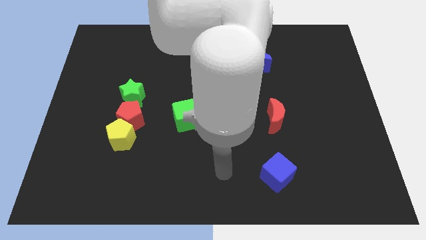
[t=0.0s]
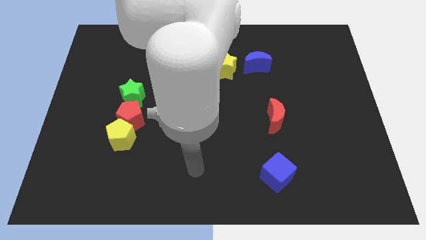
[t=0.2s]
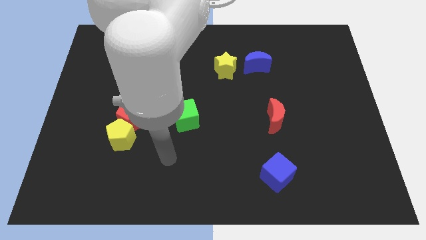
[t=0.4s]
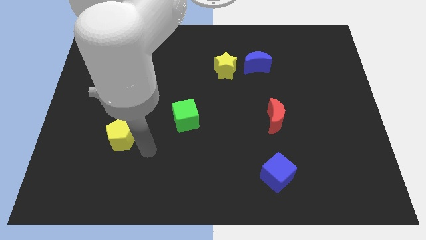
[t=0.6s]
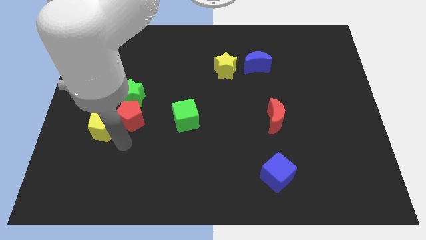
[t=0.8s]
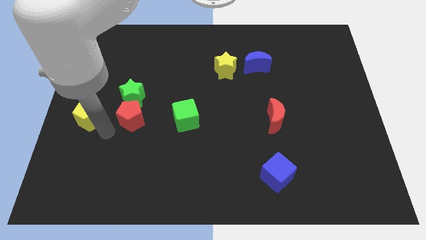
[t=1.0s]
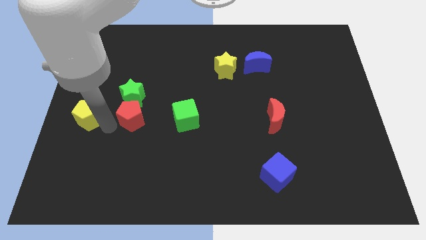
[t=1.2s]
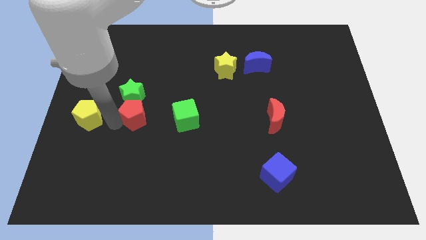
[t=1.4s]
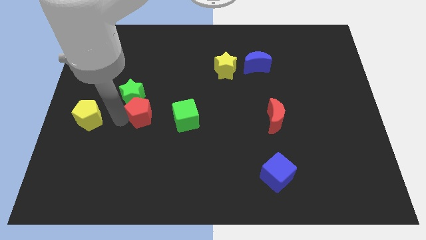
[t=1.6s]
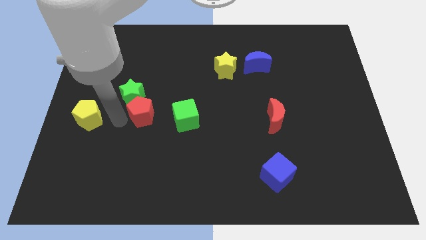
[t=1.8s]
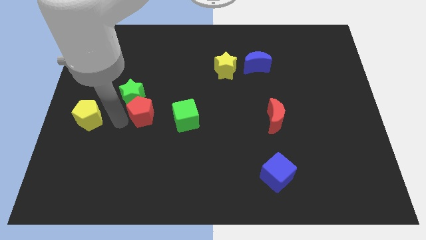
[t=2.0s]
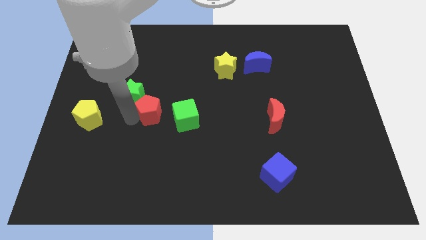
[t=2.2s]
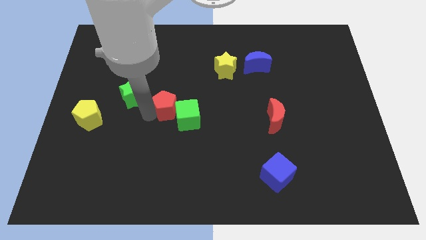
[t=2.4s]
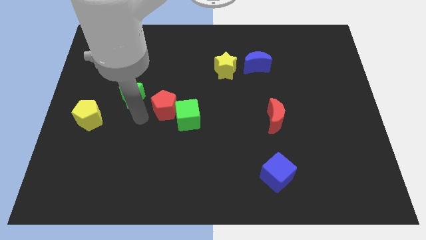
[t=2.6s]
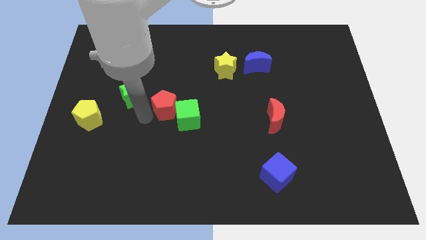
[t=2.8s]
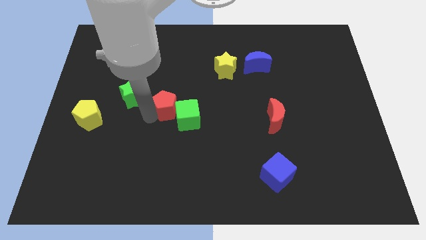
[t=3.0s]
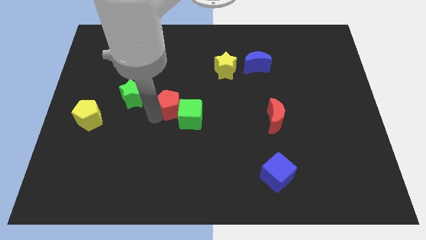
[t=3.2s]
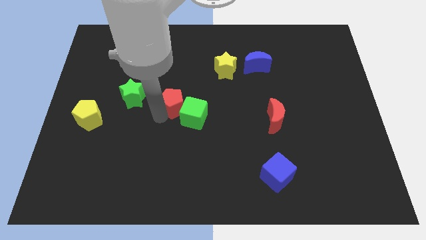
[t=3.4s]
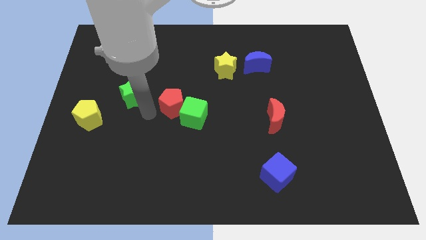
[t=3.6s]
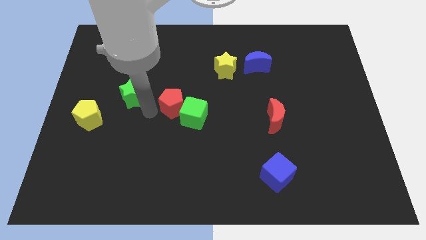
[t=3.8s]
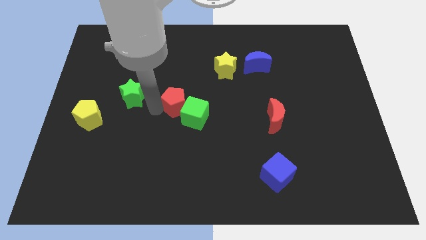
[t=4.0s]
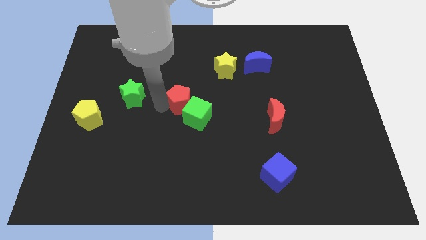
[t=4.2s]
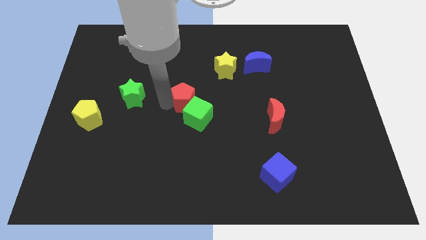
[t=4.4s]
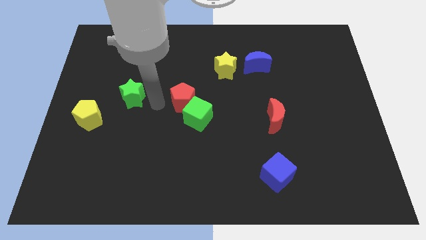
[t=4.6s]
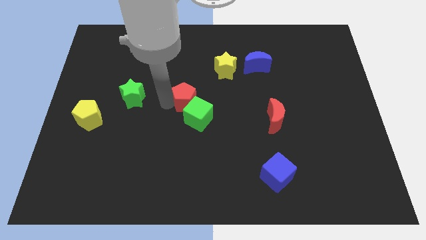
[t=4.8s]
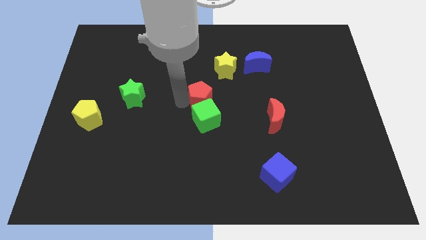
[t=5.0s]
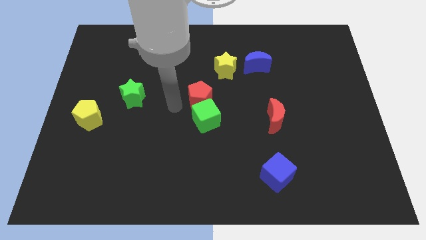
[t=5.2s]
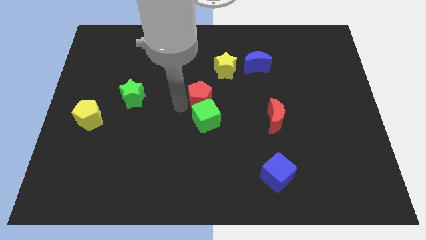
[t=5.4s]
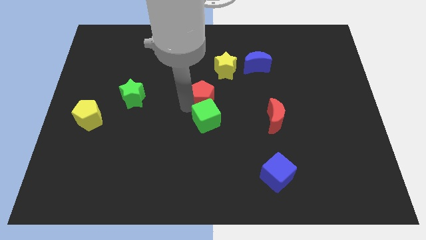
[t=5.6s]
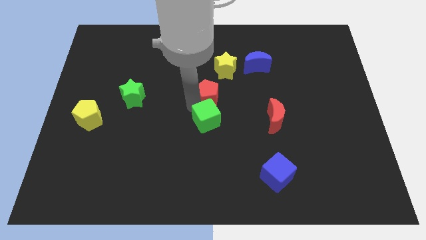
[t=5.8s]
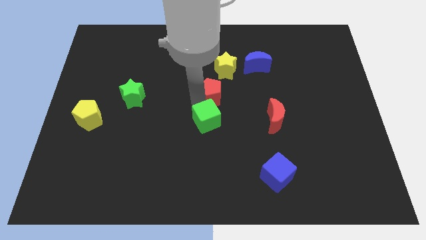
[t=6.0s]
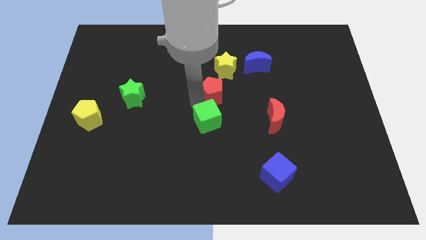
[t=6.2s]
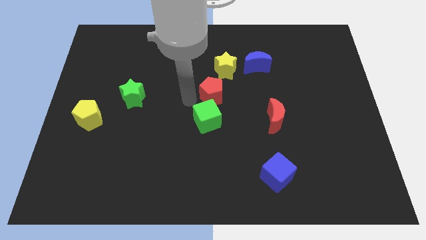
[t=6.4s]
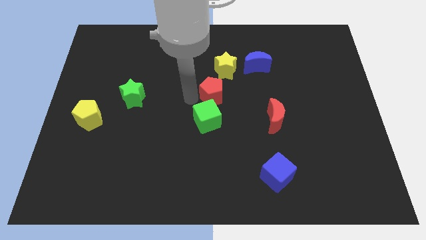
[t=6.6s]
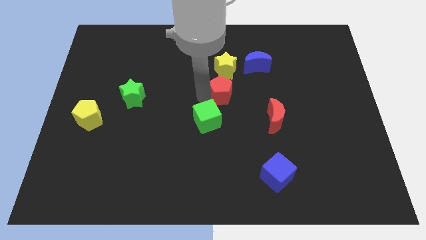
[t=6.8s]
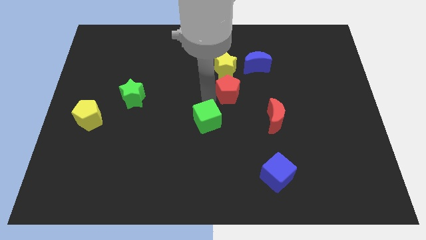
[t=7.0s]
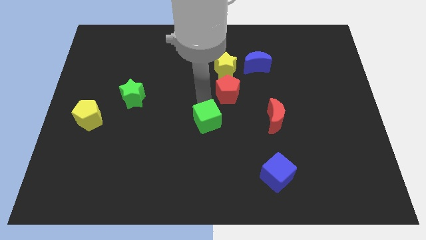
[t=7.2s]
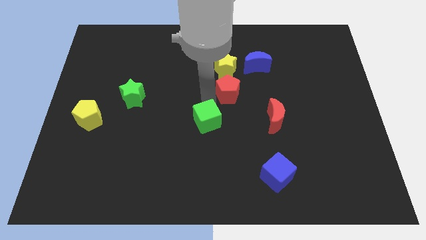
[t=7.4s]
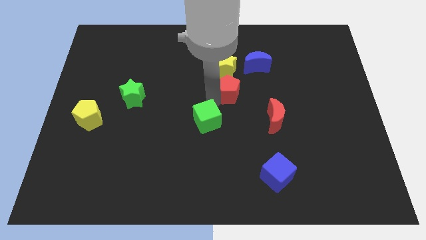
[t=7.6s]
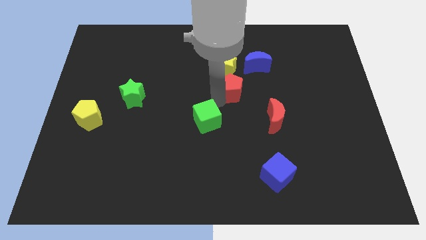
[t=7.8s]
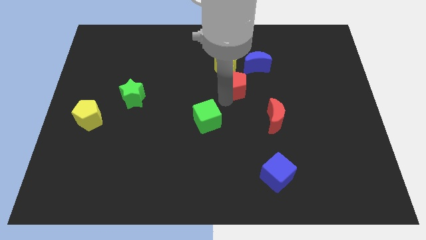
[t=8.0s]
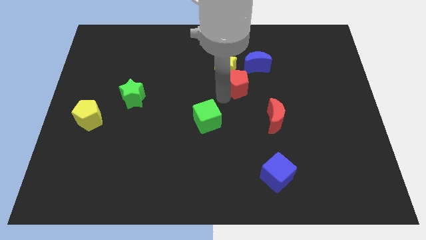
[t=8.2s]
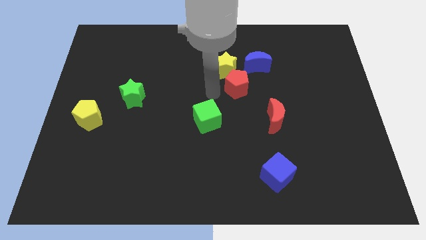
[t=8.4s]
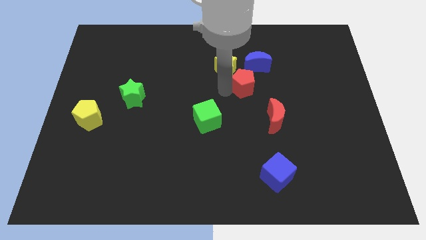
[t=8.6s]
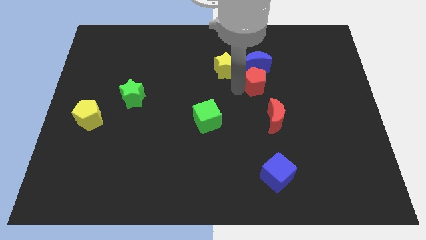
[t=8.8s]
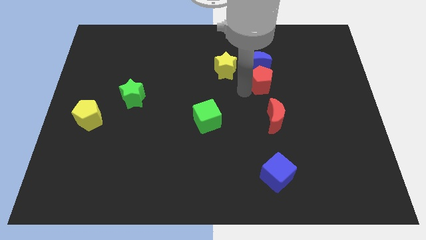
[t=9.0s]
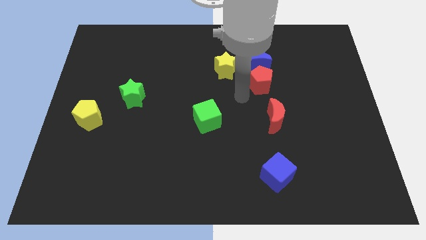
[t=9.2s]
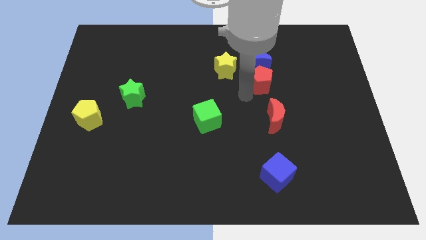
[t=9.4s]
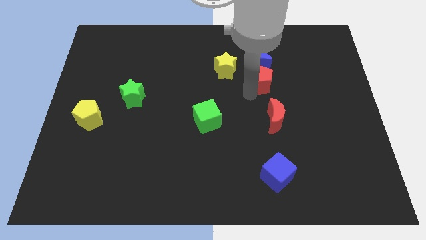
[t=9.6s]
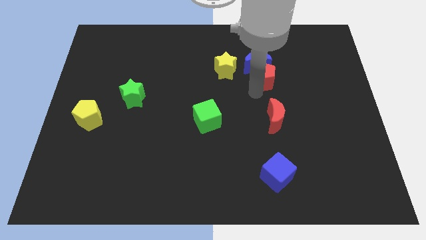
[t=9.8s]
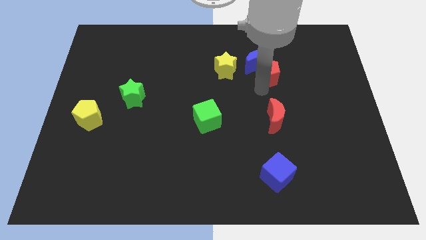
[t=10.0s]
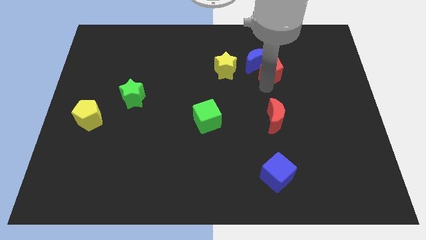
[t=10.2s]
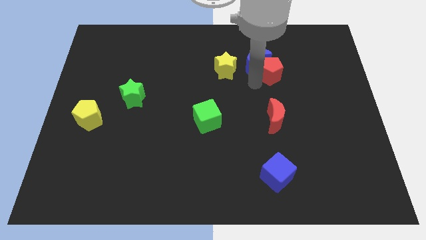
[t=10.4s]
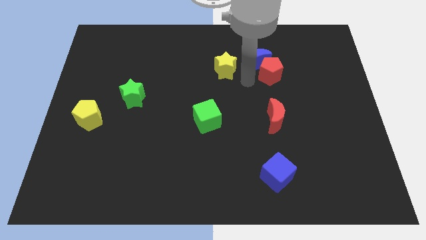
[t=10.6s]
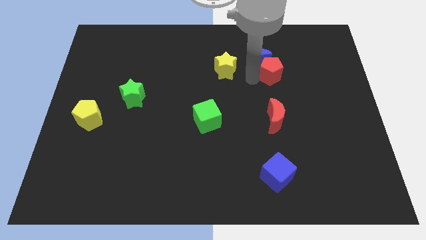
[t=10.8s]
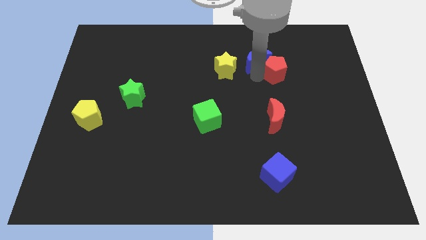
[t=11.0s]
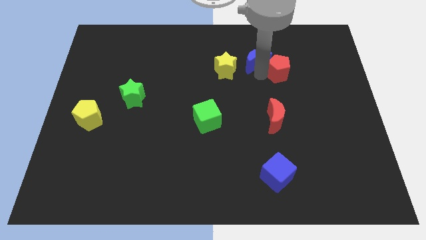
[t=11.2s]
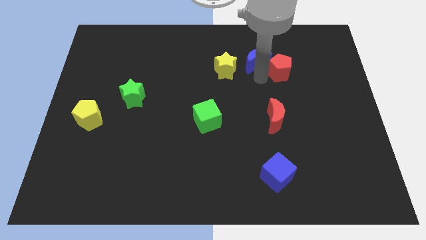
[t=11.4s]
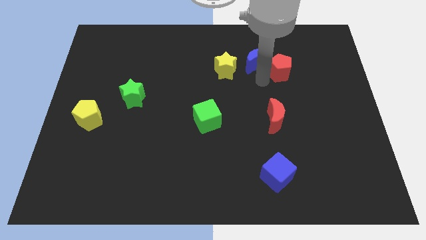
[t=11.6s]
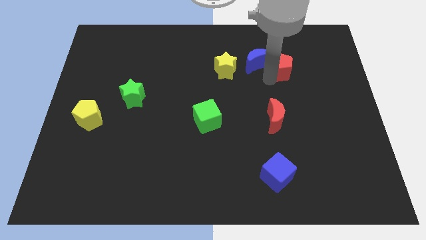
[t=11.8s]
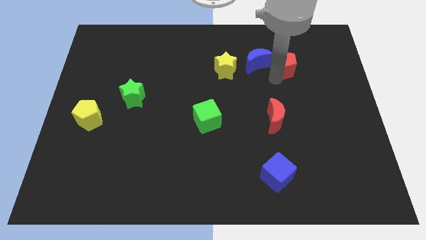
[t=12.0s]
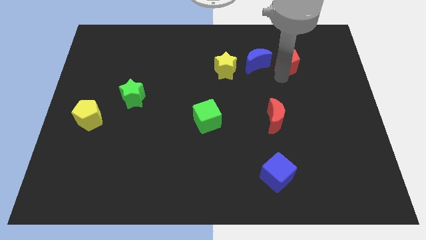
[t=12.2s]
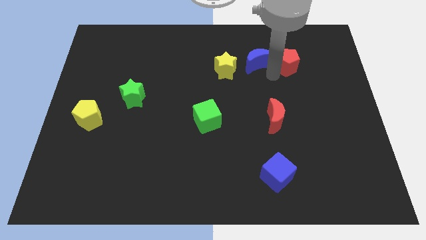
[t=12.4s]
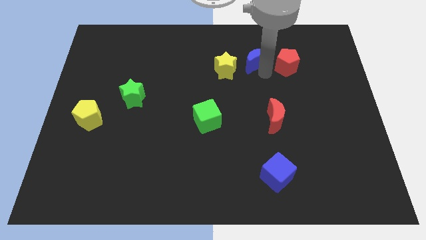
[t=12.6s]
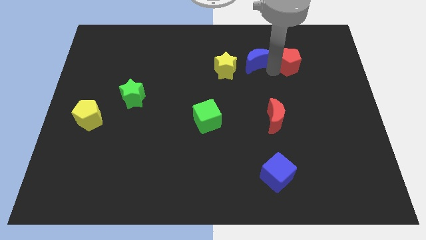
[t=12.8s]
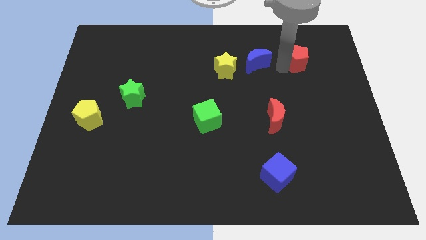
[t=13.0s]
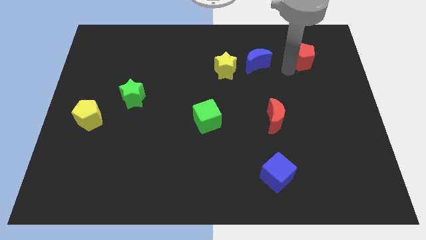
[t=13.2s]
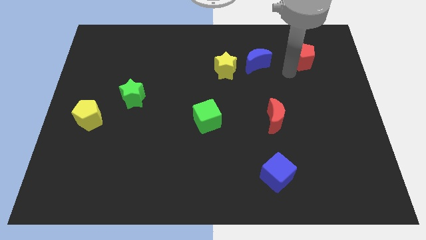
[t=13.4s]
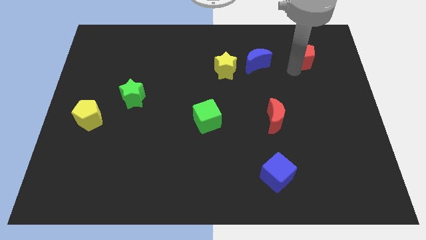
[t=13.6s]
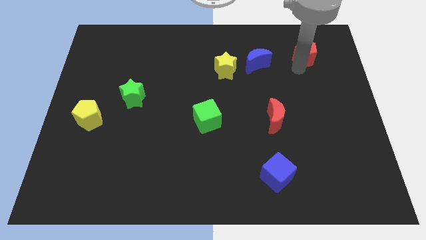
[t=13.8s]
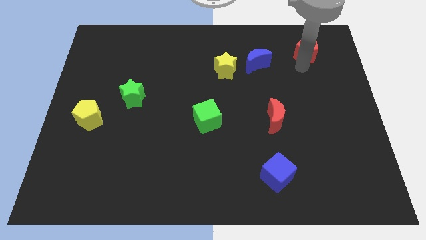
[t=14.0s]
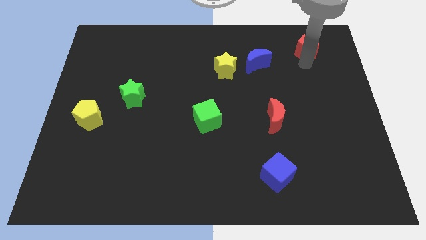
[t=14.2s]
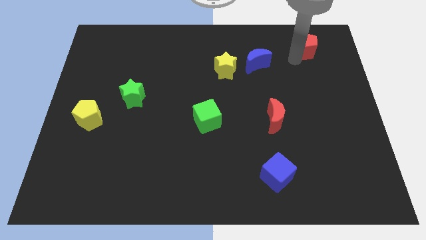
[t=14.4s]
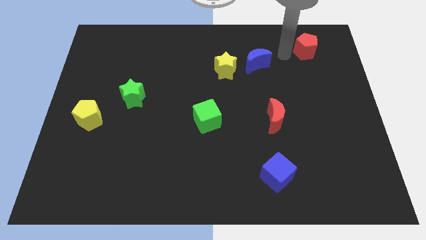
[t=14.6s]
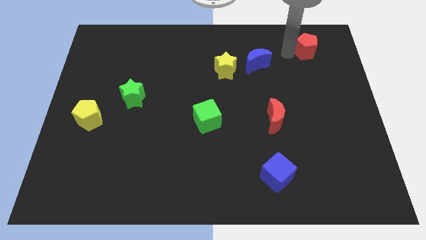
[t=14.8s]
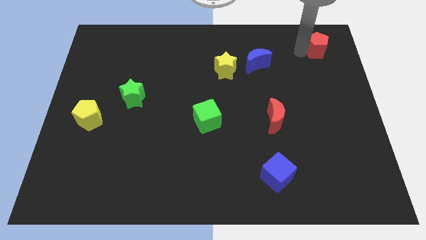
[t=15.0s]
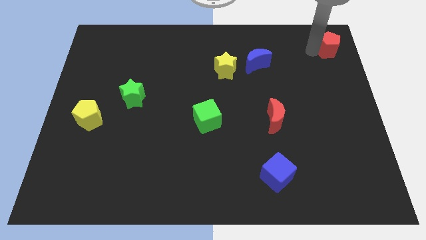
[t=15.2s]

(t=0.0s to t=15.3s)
push the red pentagon to the top right
